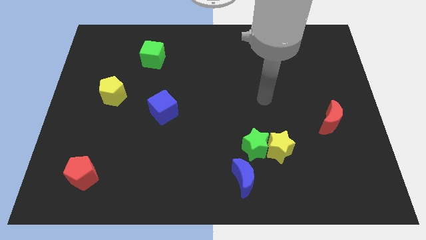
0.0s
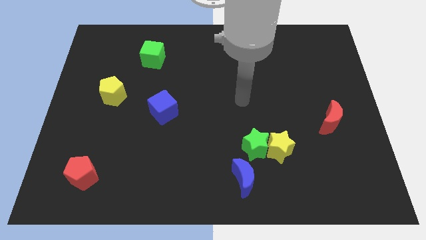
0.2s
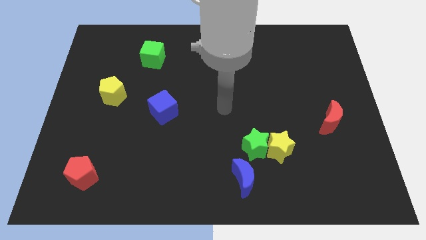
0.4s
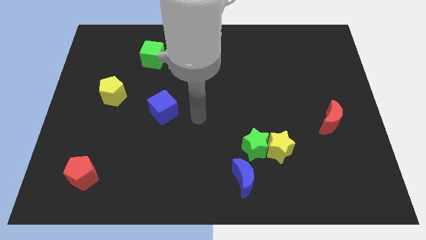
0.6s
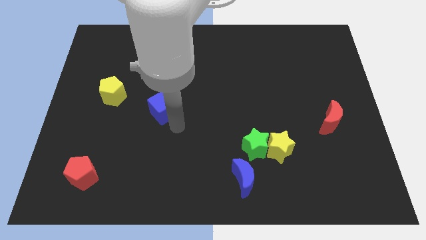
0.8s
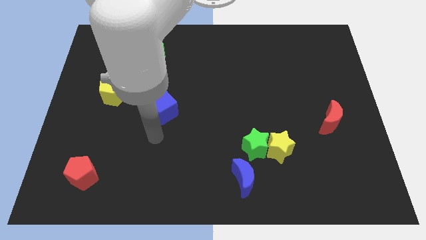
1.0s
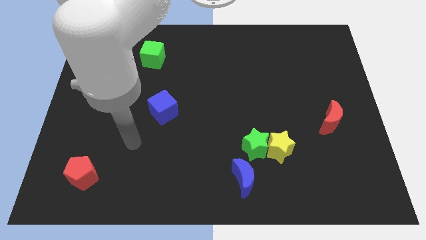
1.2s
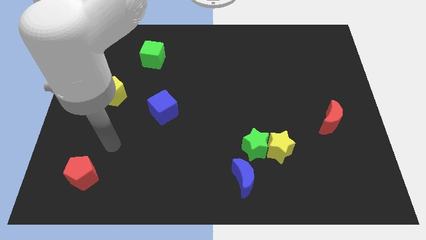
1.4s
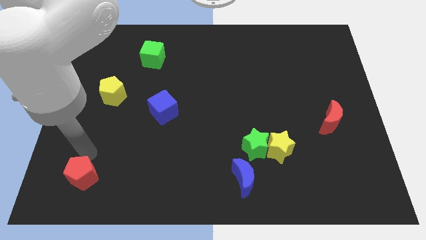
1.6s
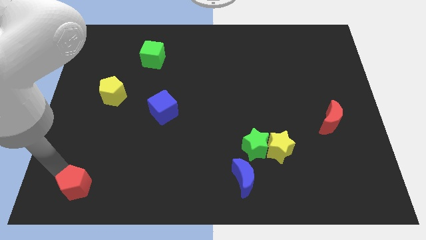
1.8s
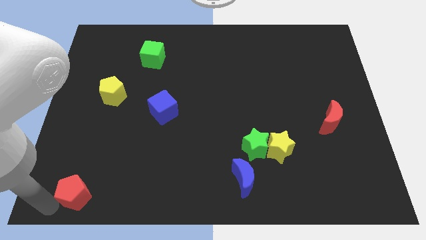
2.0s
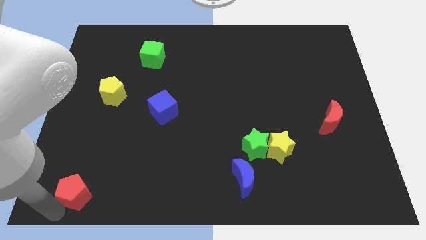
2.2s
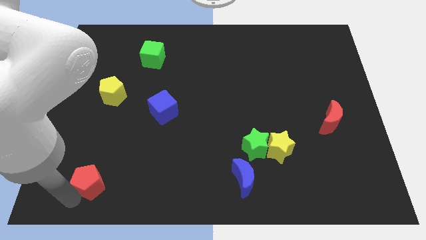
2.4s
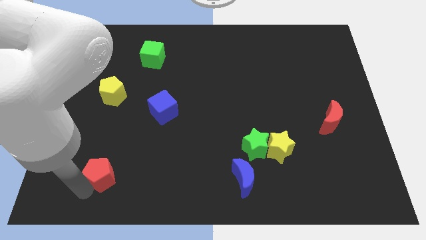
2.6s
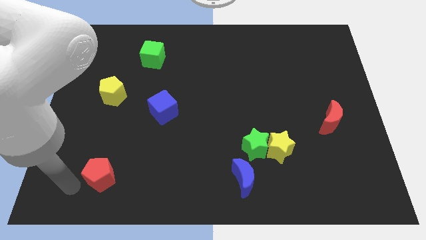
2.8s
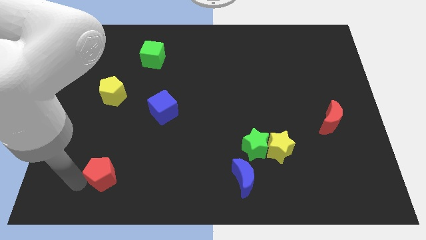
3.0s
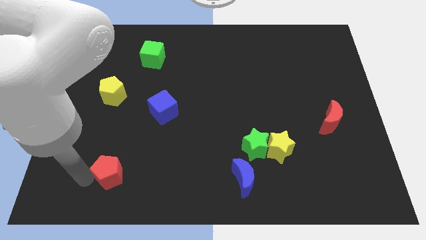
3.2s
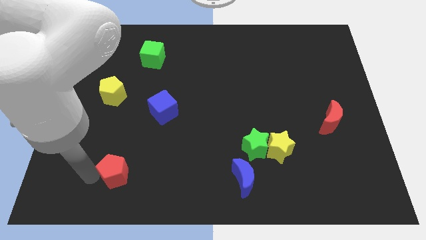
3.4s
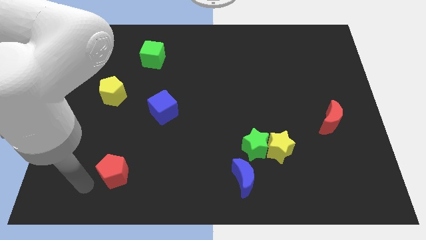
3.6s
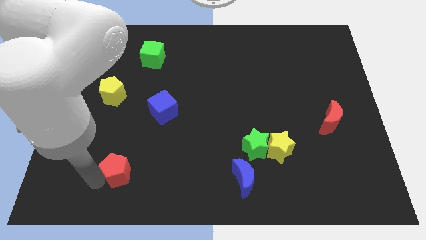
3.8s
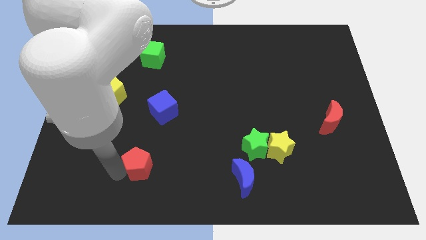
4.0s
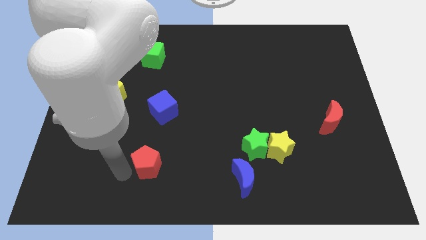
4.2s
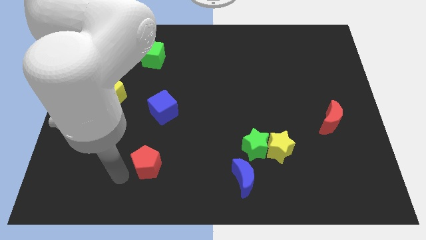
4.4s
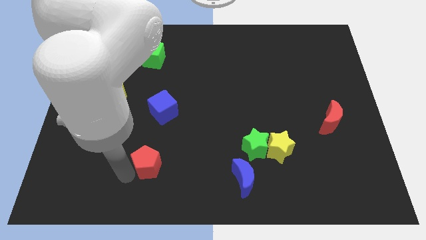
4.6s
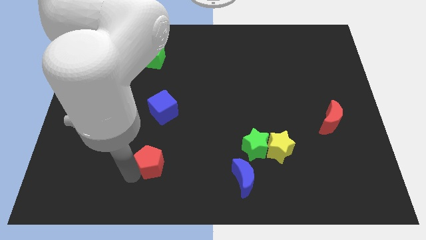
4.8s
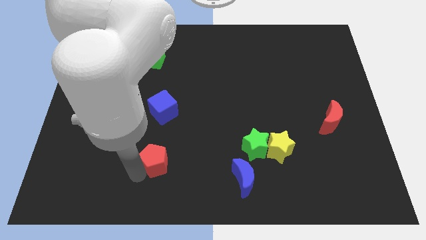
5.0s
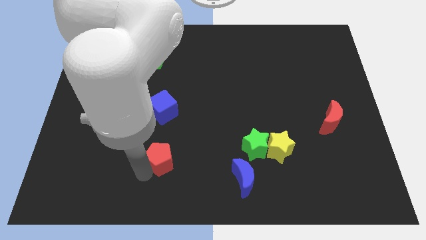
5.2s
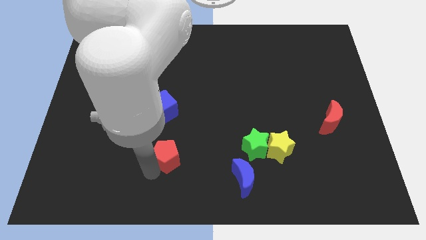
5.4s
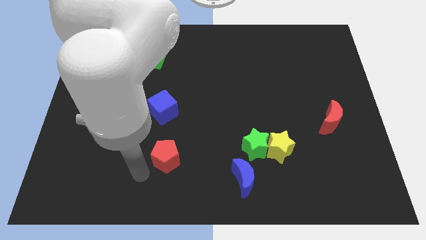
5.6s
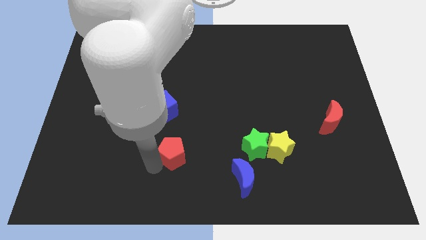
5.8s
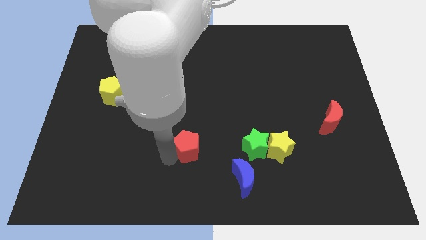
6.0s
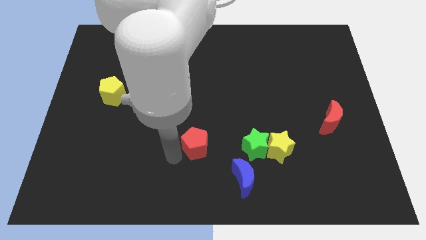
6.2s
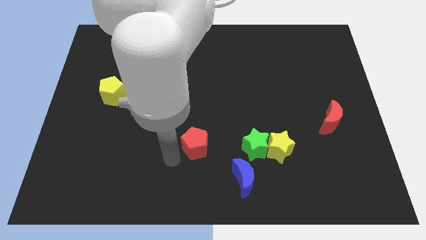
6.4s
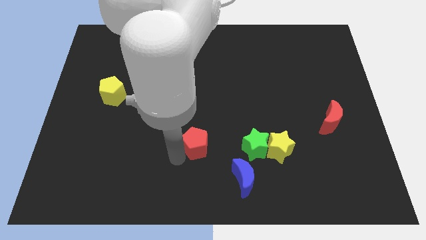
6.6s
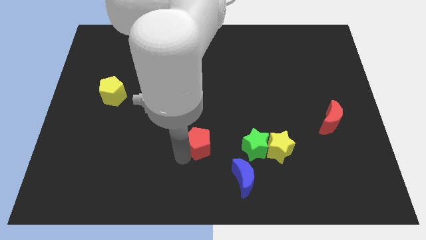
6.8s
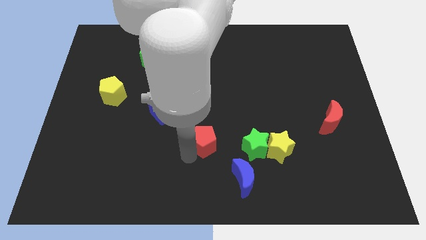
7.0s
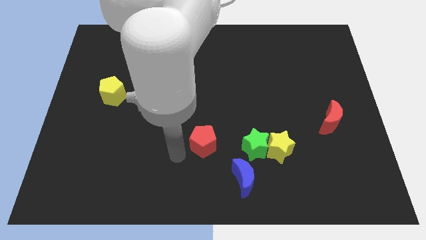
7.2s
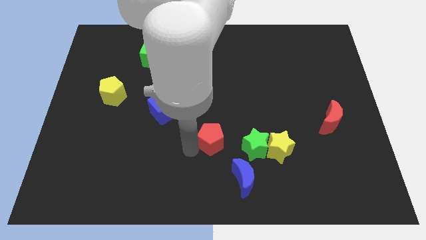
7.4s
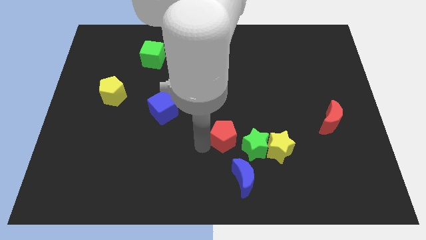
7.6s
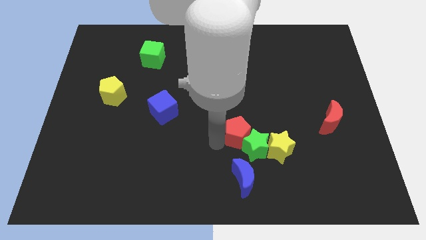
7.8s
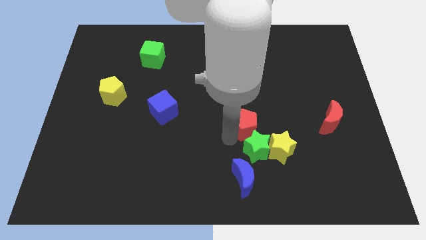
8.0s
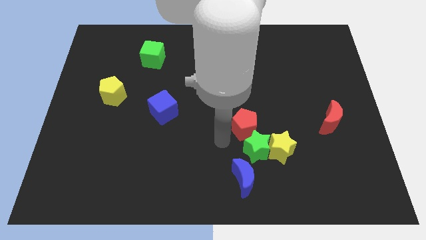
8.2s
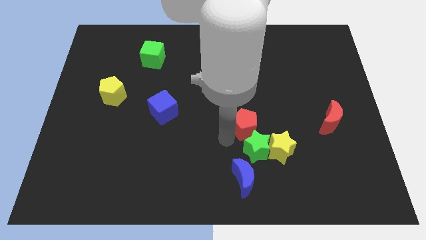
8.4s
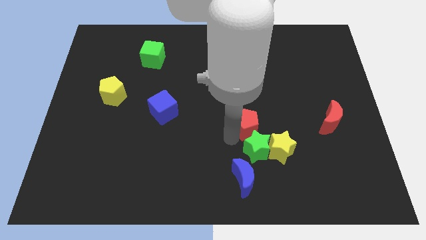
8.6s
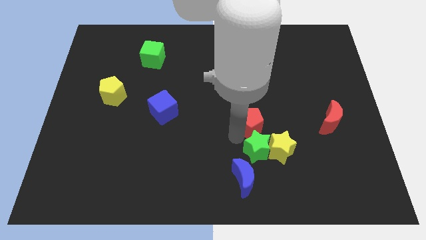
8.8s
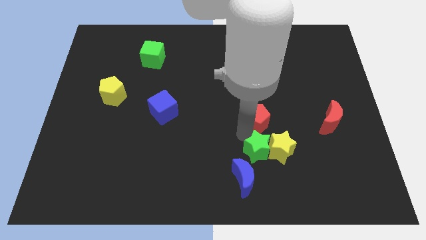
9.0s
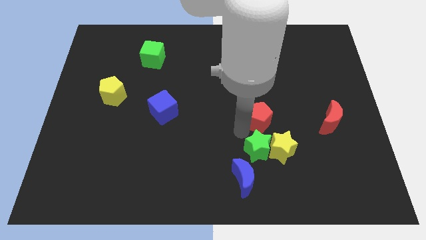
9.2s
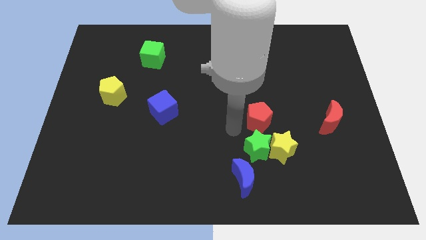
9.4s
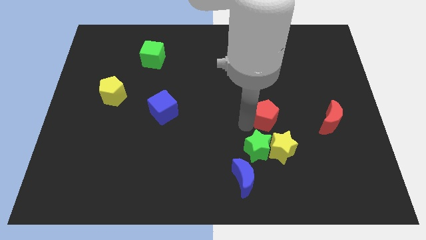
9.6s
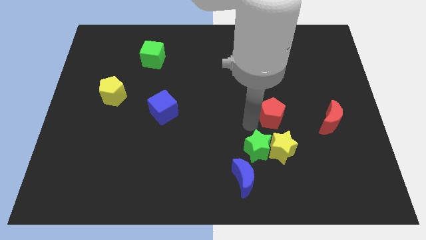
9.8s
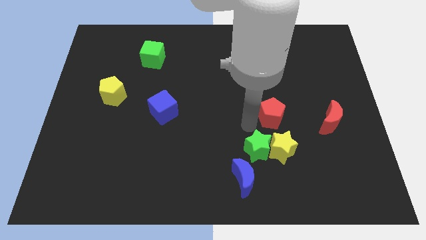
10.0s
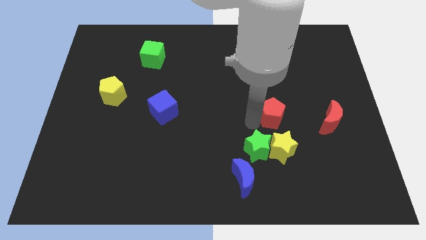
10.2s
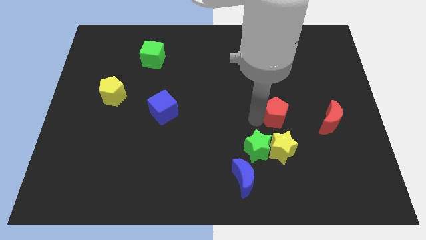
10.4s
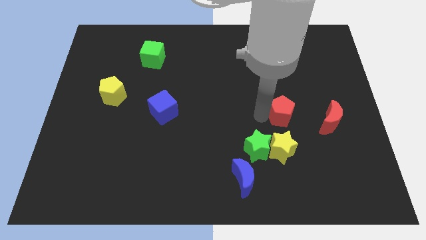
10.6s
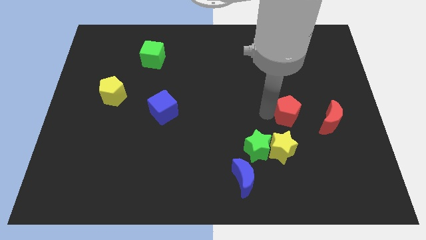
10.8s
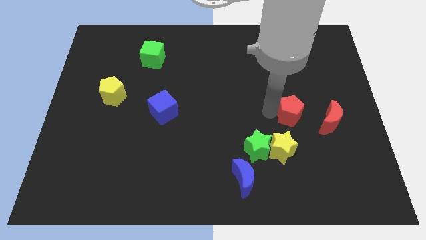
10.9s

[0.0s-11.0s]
slide the red pentagon to the top left of the red moon

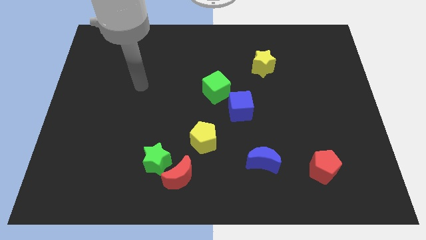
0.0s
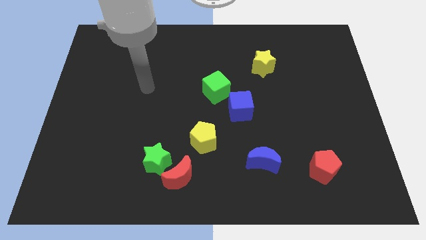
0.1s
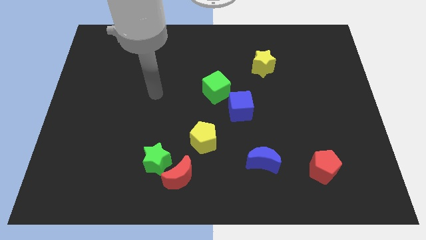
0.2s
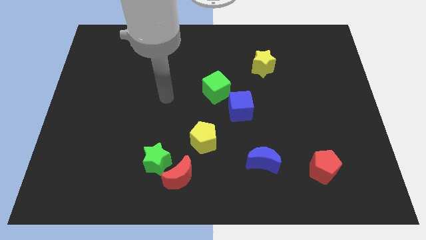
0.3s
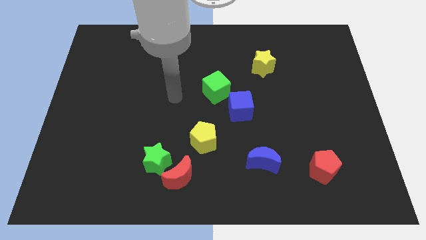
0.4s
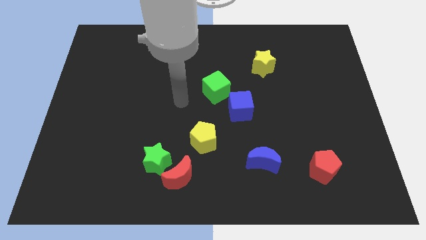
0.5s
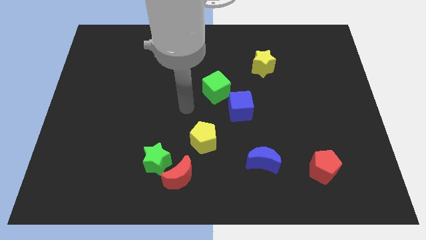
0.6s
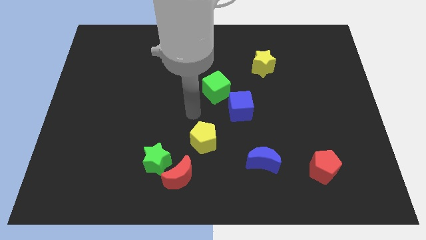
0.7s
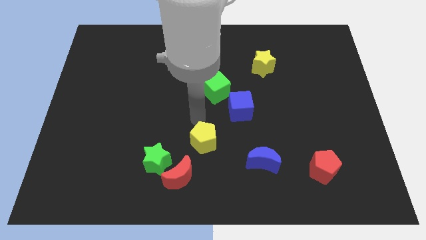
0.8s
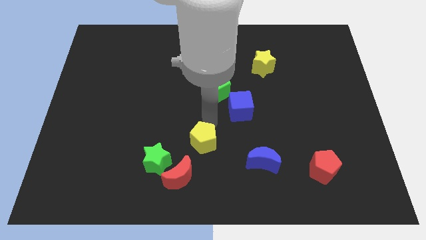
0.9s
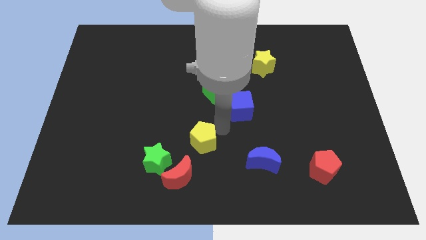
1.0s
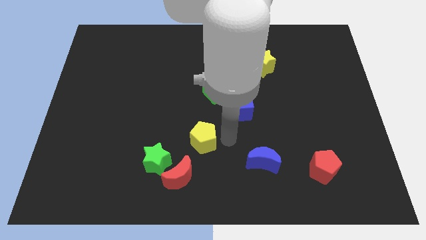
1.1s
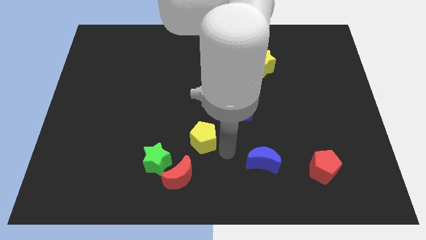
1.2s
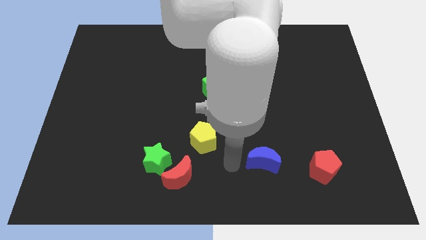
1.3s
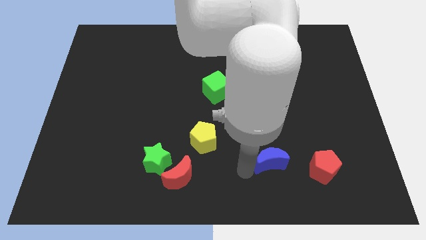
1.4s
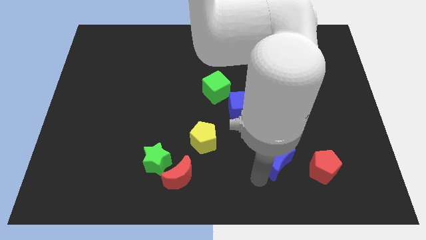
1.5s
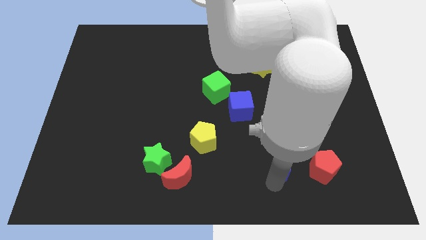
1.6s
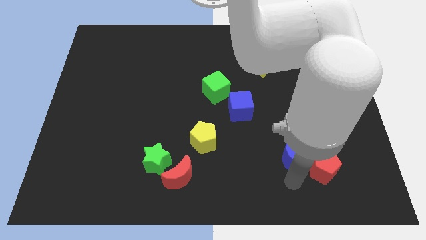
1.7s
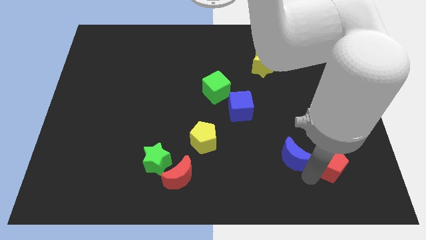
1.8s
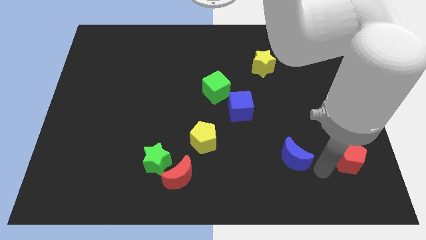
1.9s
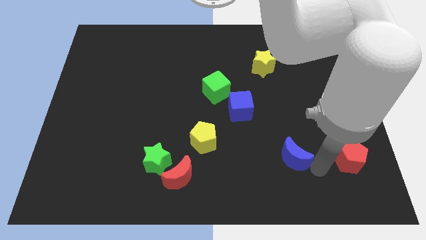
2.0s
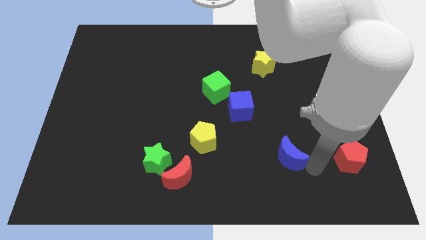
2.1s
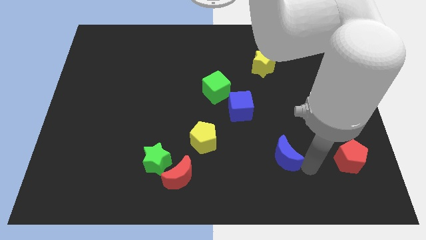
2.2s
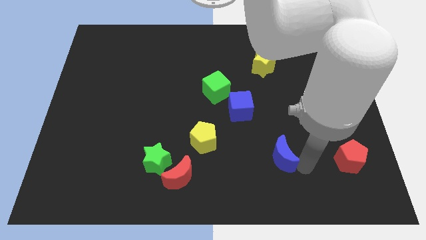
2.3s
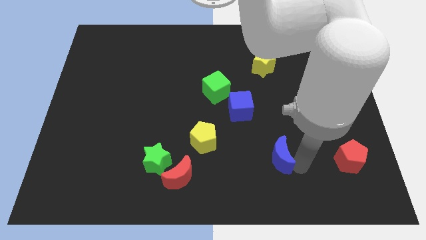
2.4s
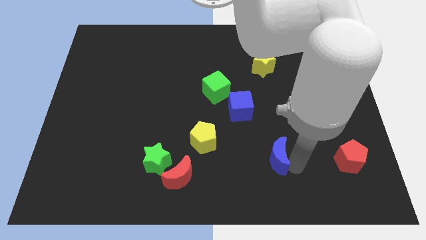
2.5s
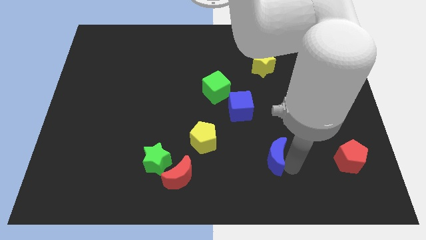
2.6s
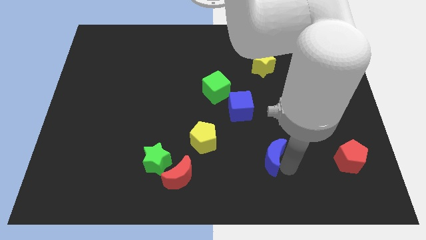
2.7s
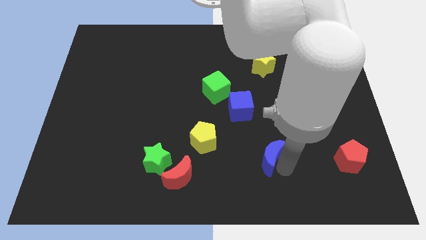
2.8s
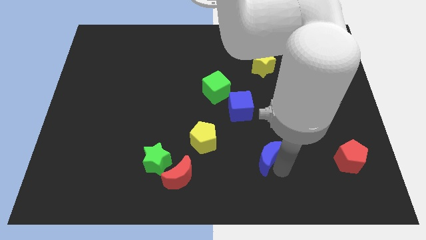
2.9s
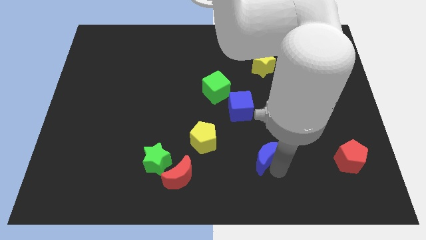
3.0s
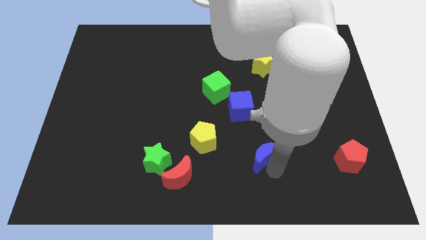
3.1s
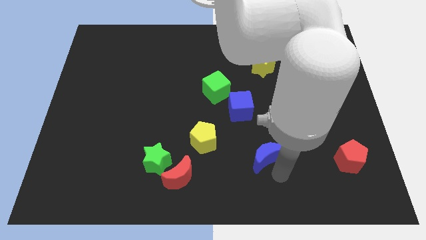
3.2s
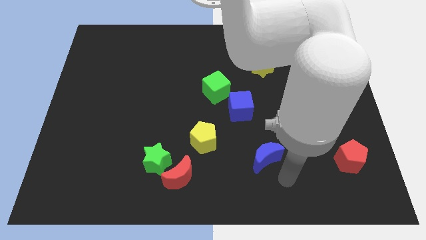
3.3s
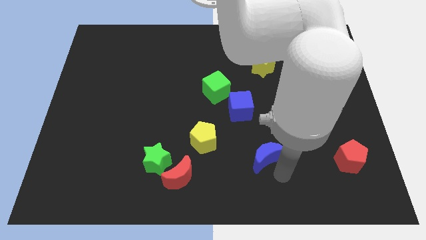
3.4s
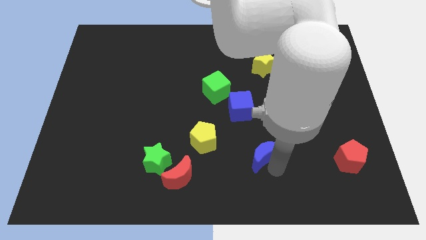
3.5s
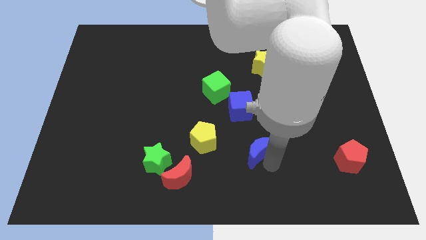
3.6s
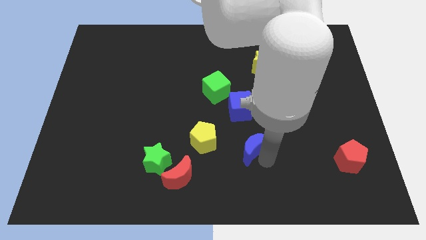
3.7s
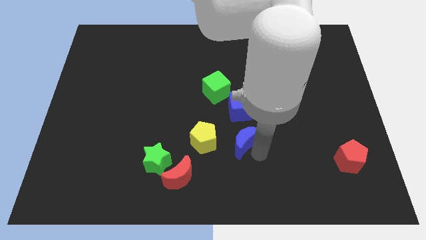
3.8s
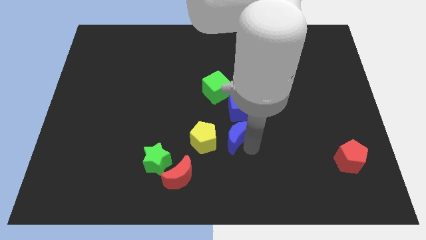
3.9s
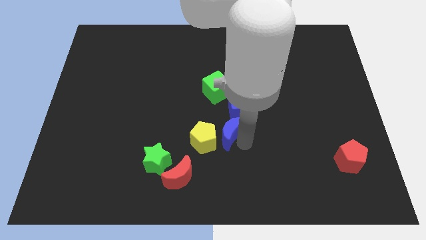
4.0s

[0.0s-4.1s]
put the blue moon below the green cube
